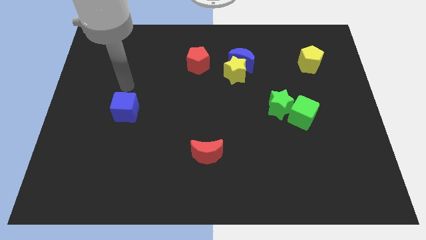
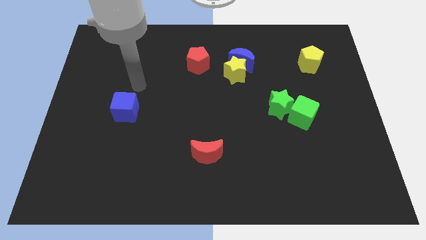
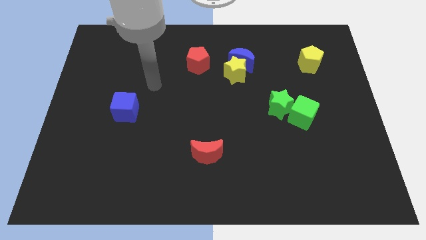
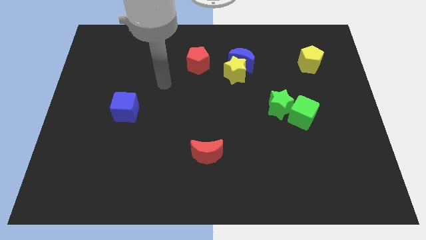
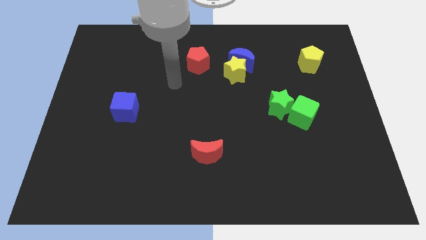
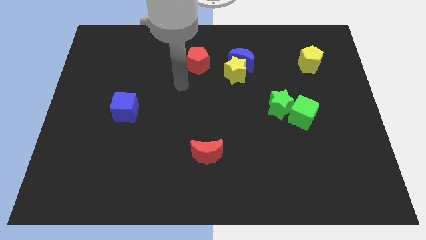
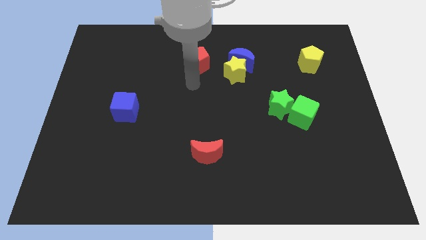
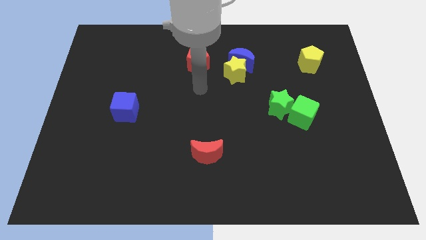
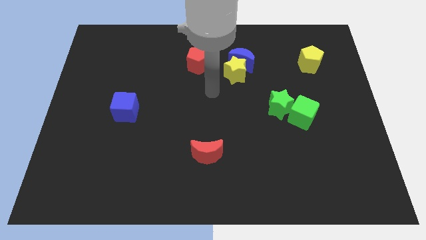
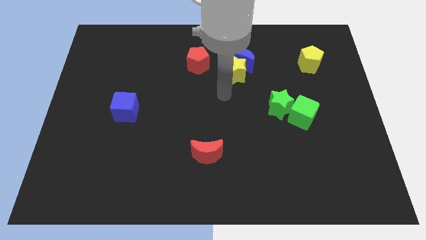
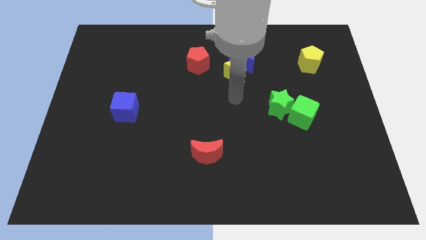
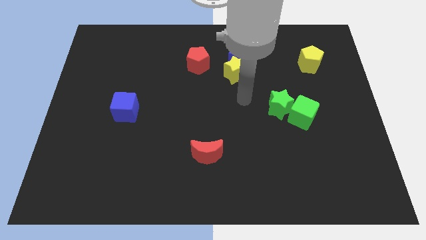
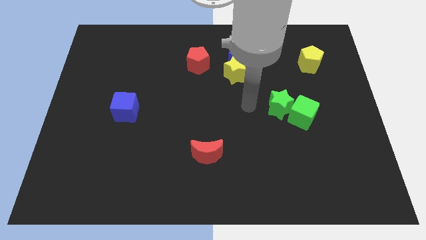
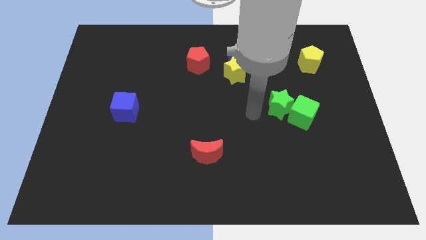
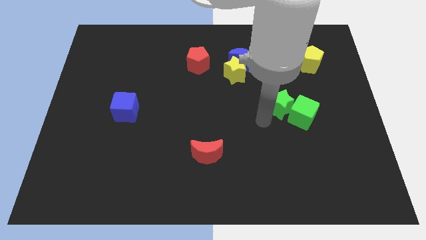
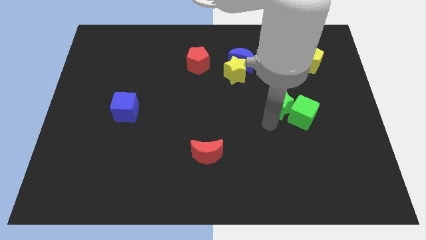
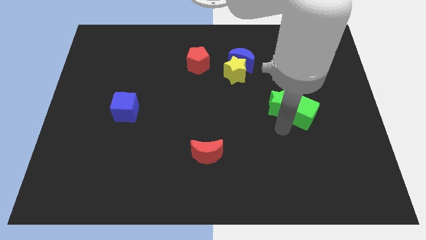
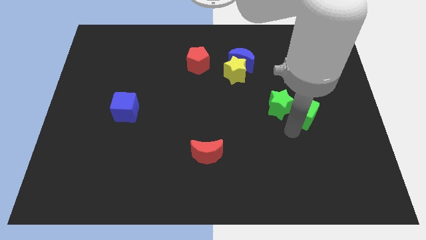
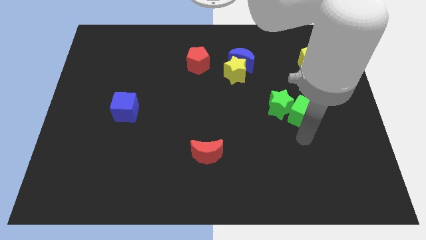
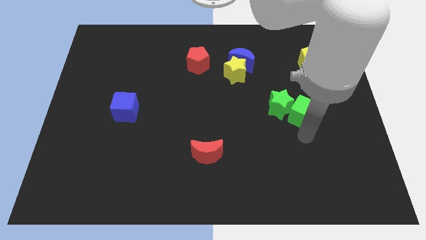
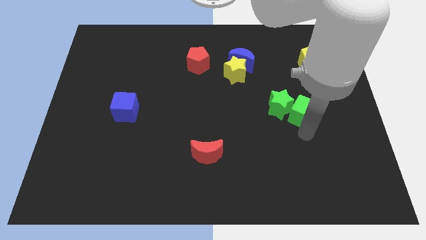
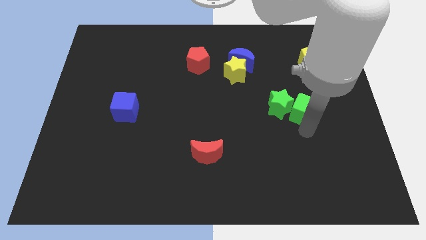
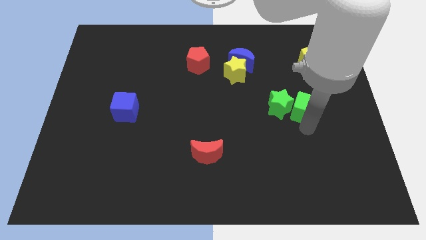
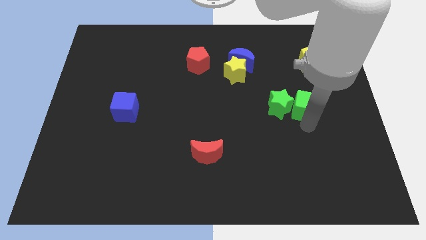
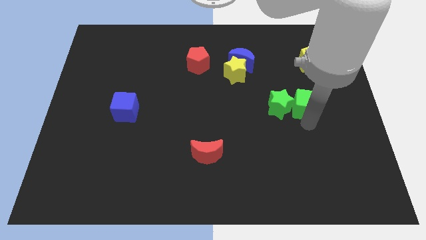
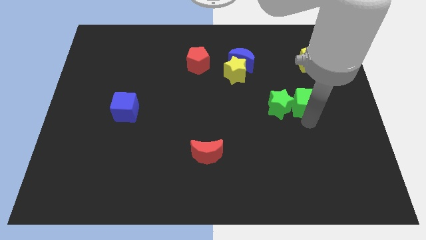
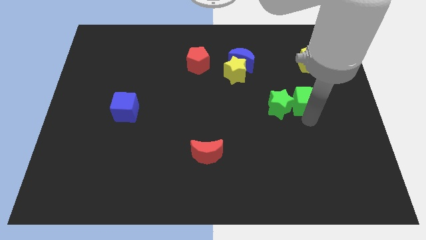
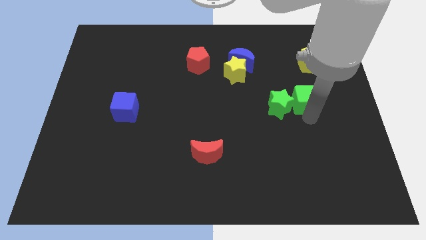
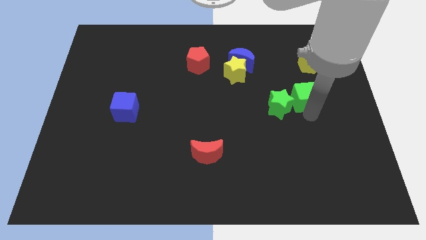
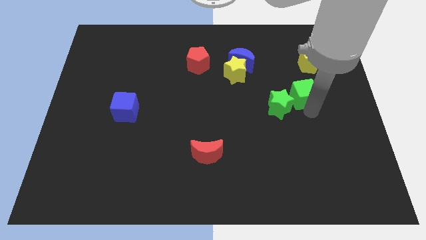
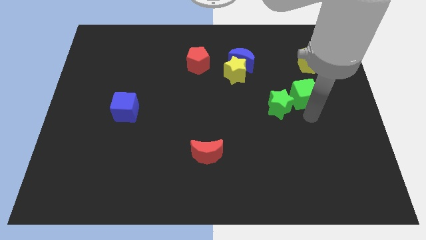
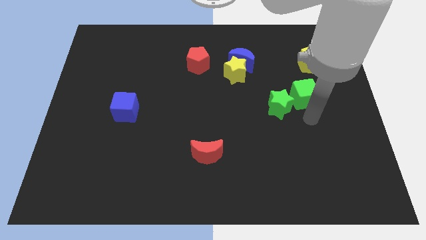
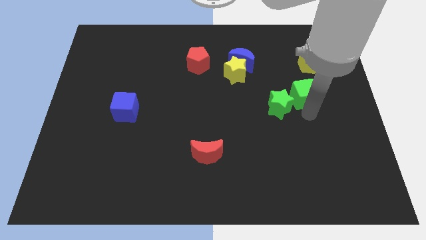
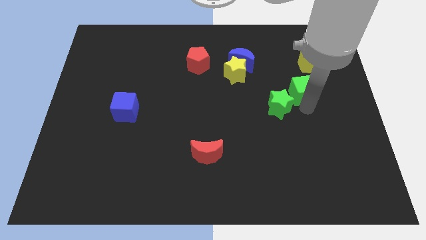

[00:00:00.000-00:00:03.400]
move the green cube up somewhat

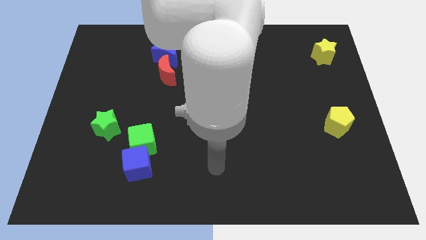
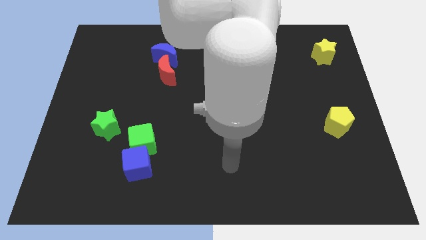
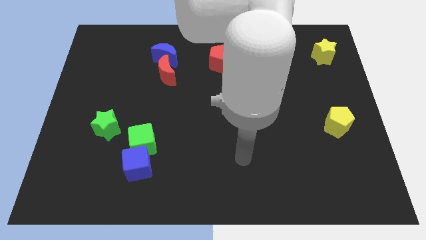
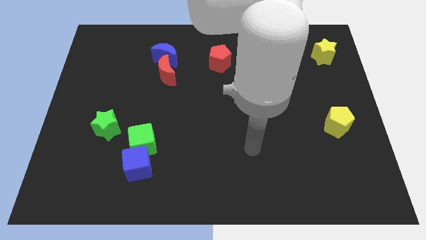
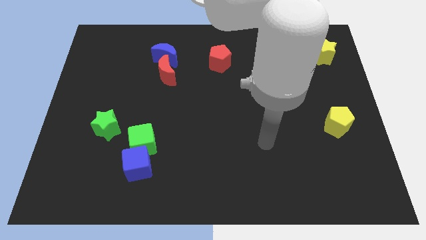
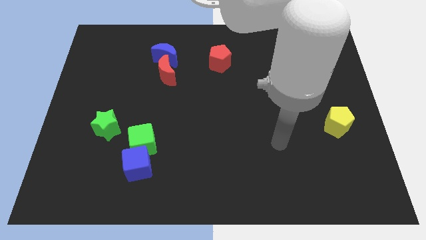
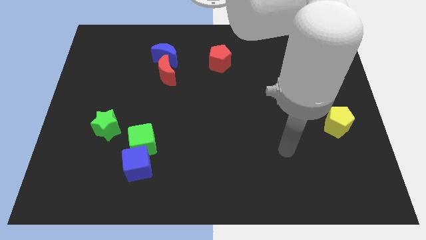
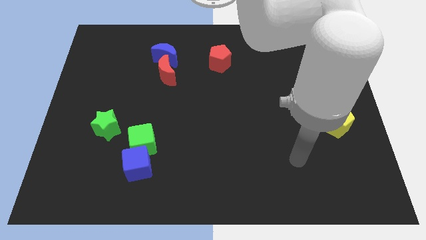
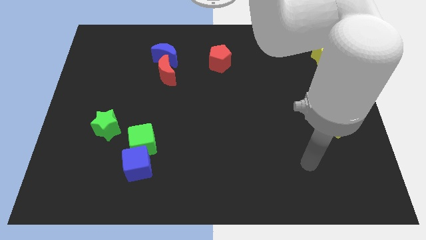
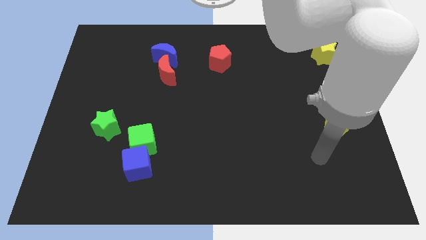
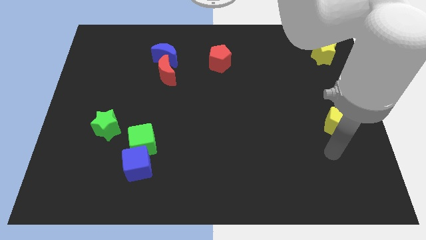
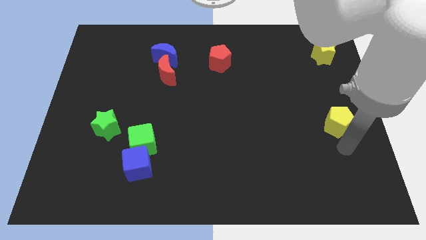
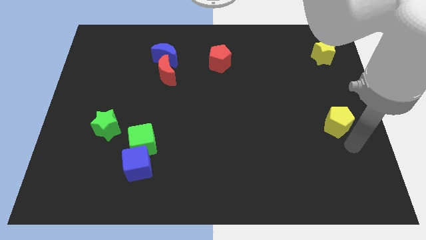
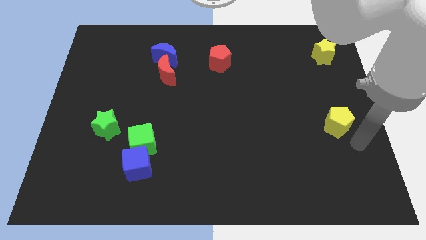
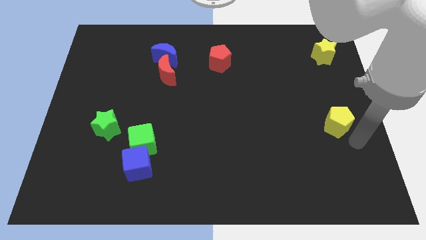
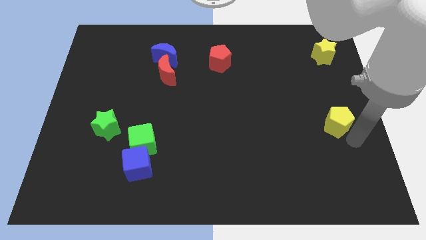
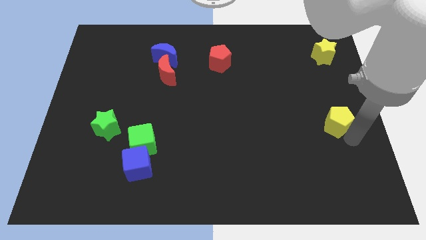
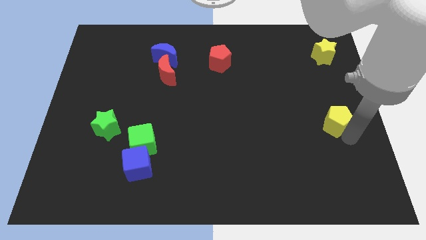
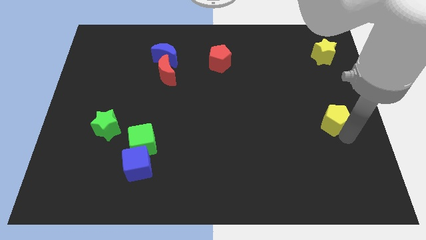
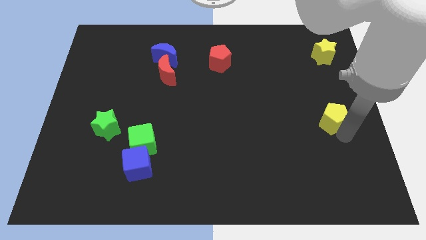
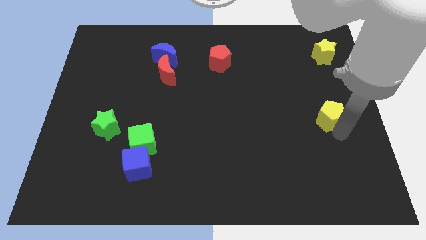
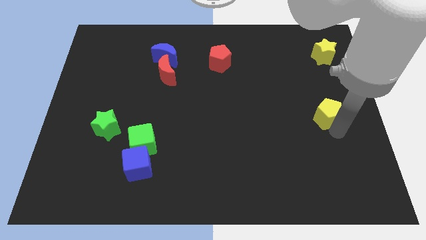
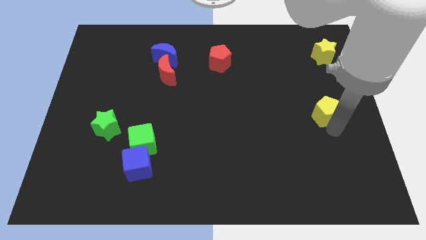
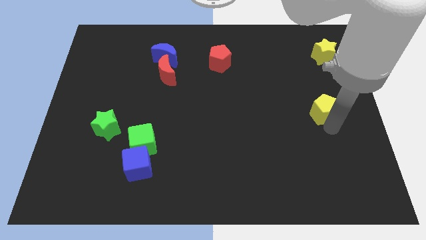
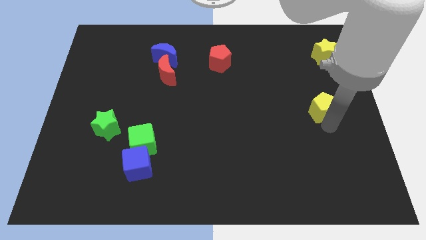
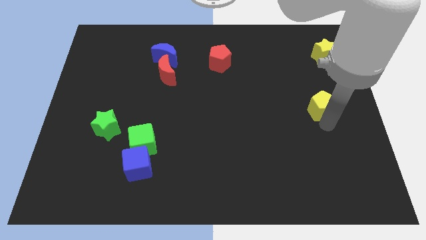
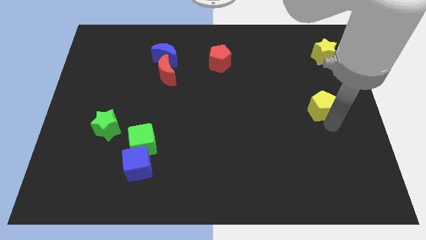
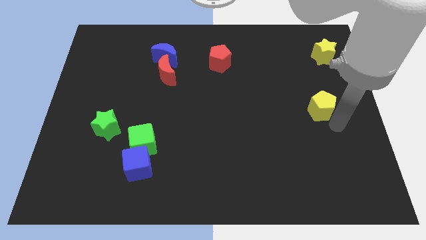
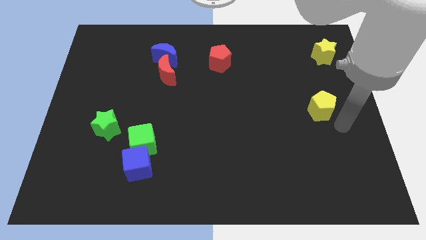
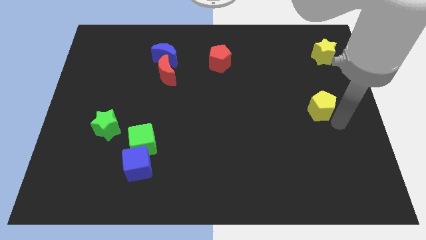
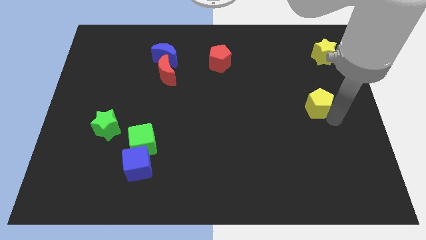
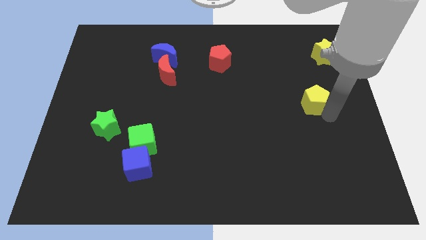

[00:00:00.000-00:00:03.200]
slide the yellow pentagon a little bit up and left diagonally

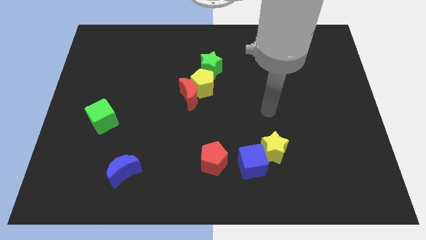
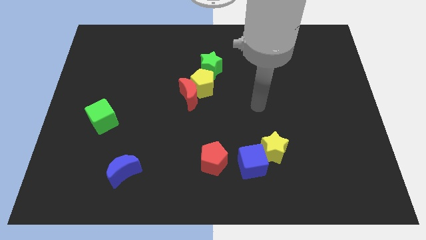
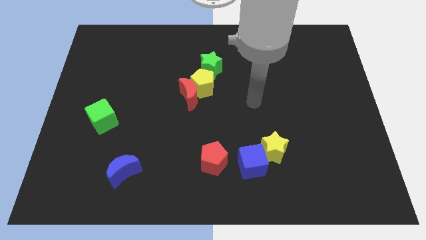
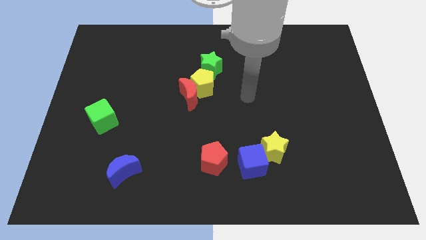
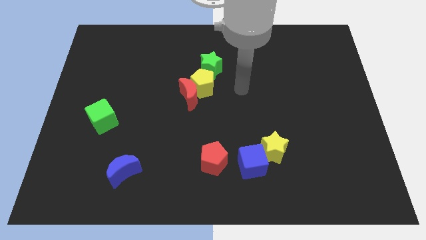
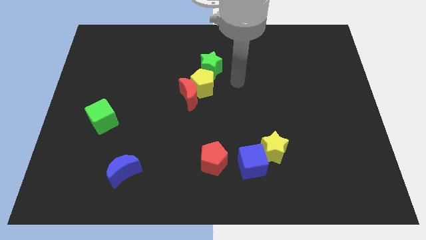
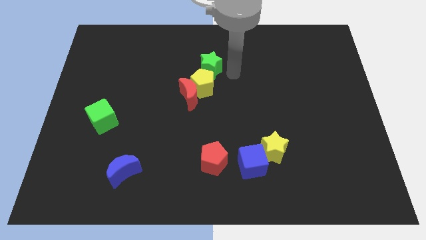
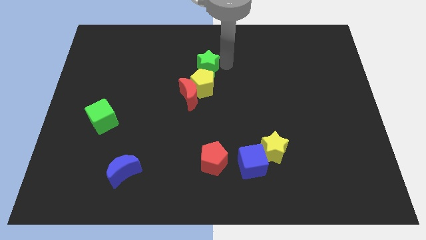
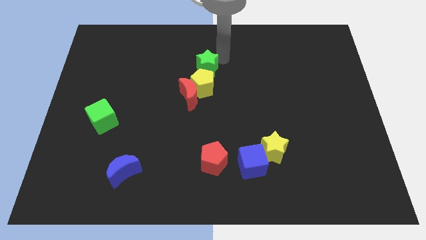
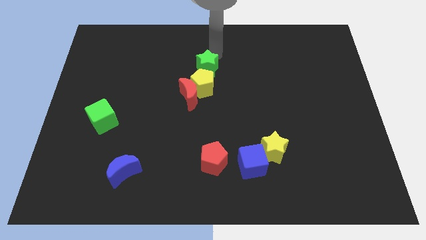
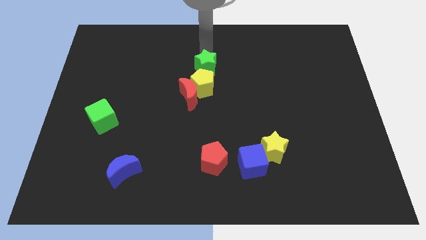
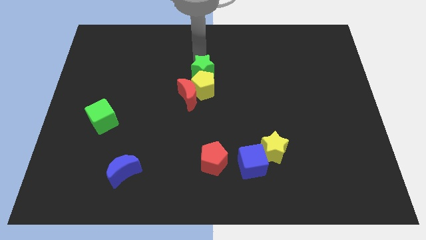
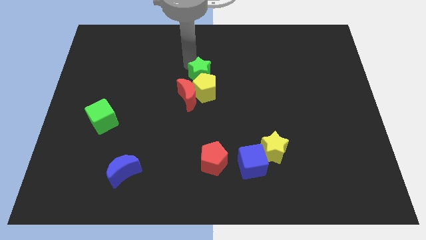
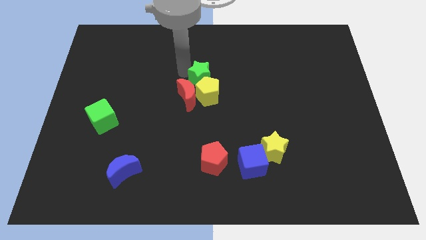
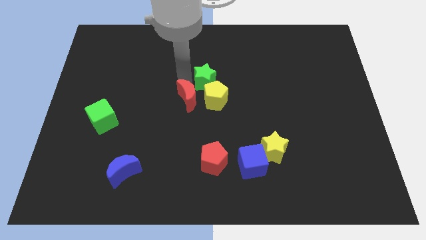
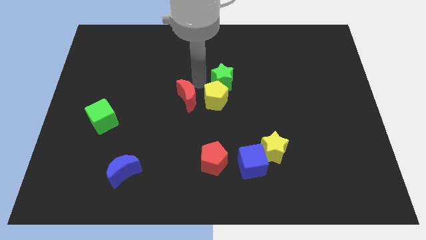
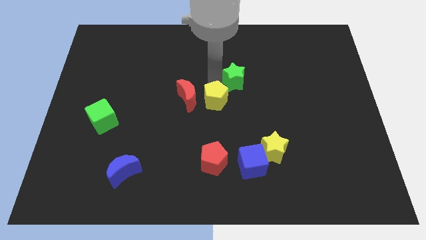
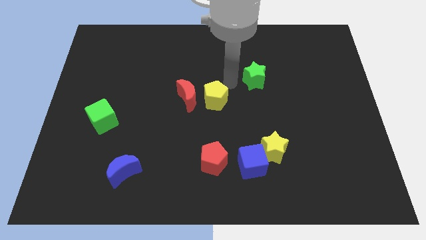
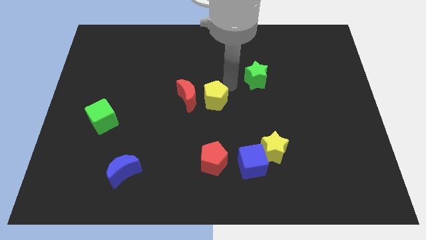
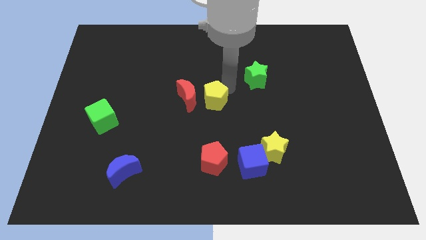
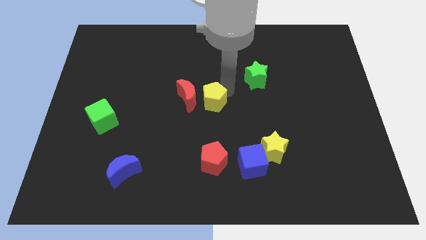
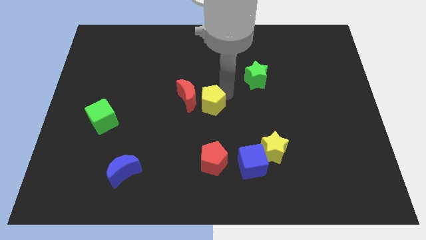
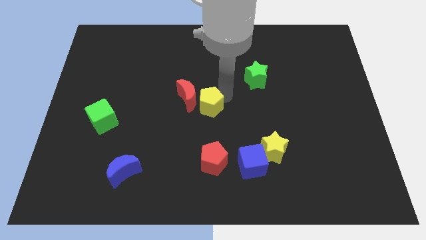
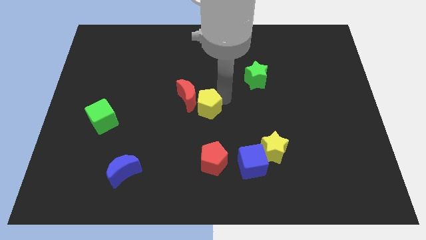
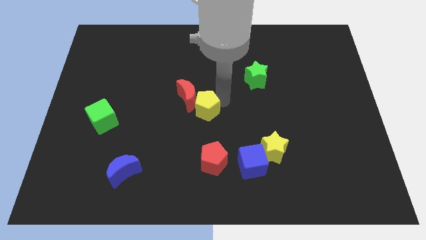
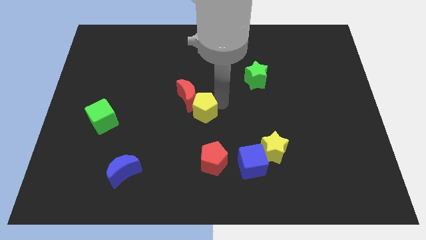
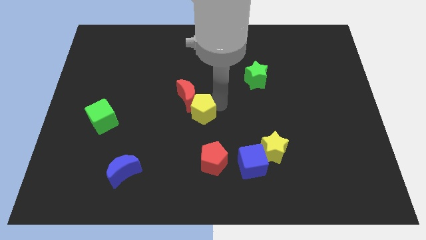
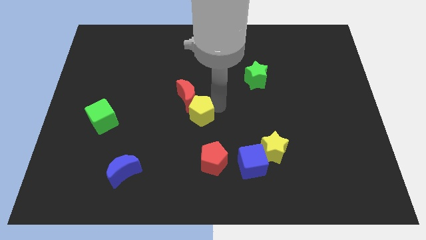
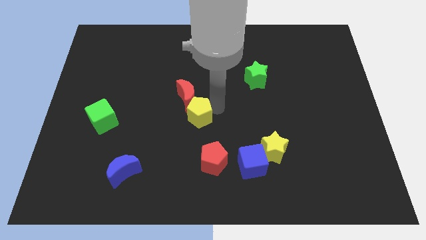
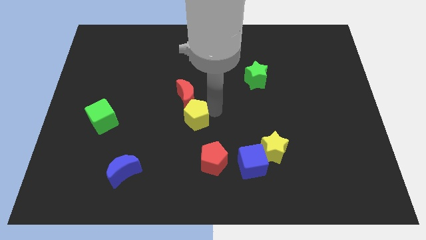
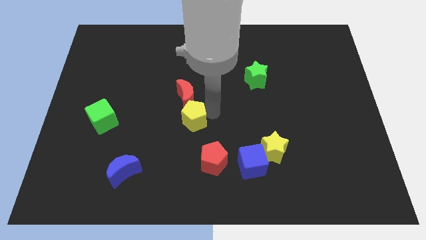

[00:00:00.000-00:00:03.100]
move the yellow pentagon downwards and then left slightly
